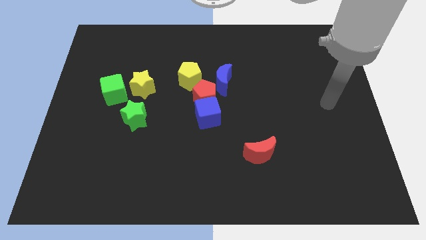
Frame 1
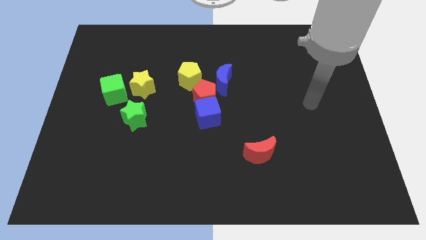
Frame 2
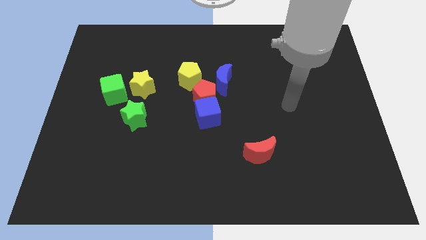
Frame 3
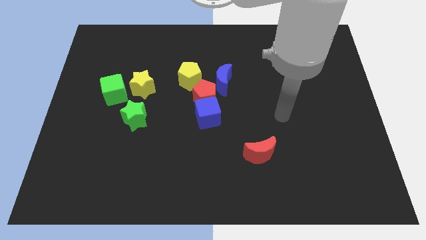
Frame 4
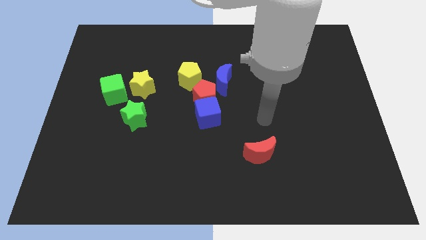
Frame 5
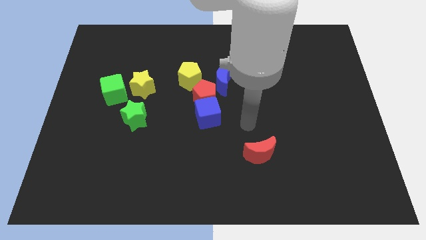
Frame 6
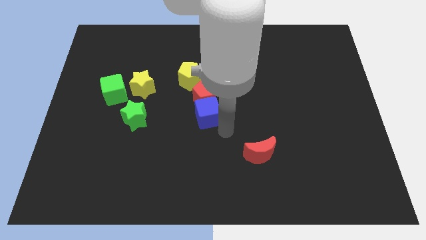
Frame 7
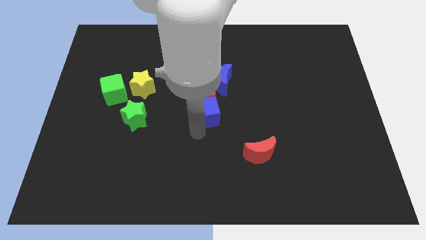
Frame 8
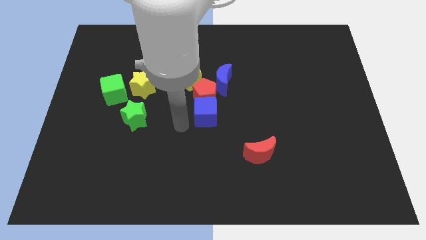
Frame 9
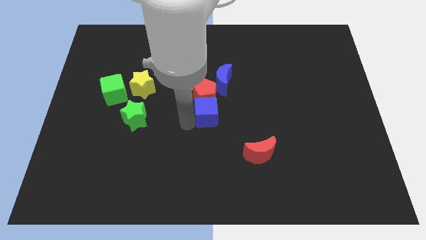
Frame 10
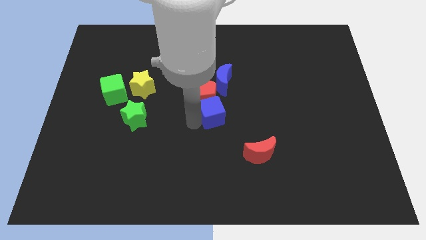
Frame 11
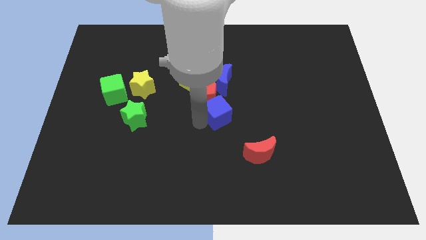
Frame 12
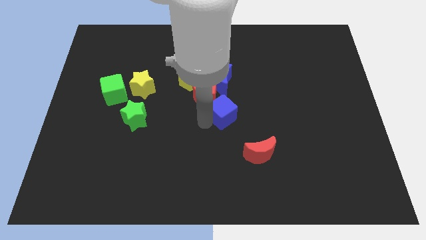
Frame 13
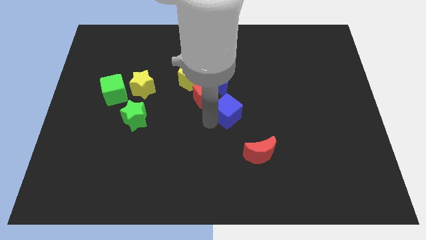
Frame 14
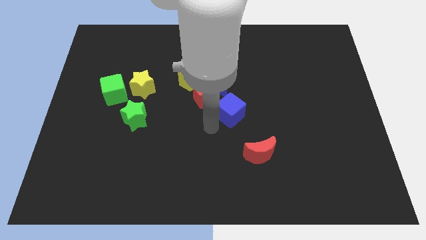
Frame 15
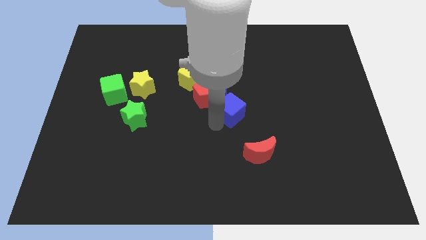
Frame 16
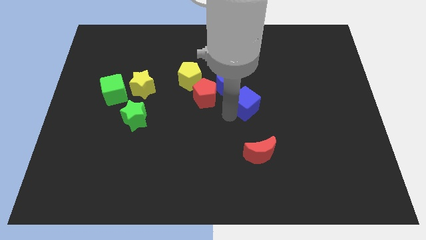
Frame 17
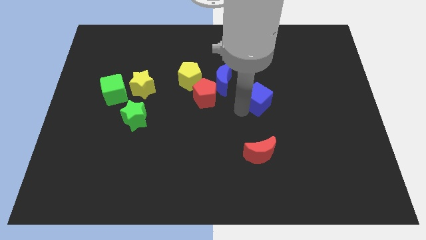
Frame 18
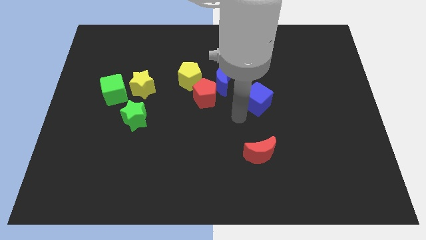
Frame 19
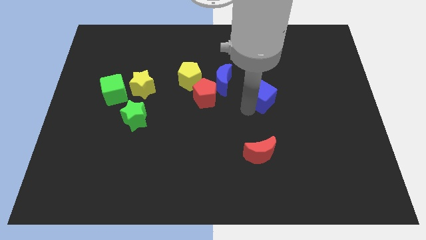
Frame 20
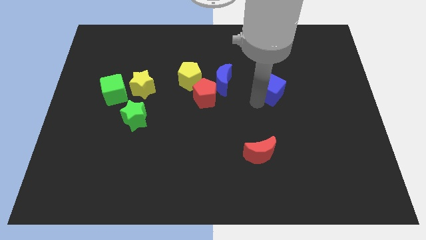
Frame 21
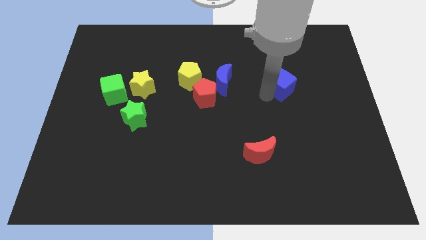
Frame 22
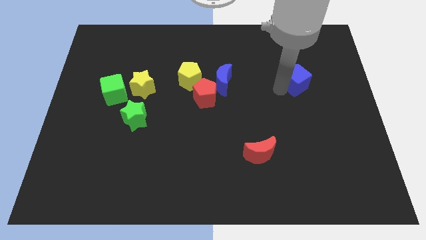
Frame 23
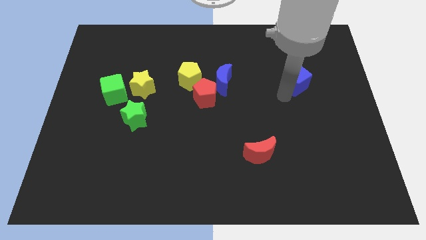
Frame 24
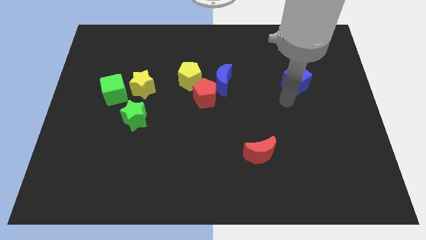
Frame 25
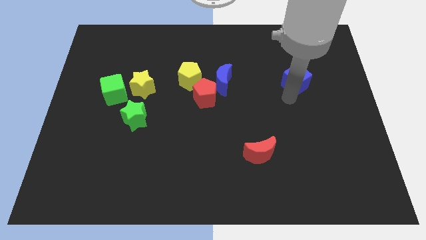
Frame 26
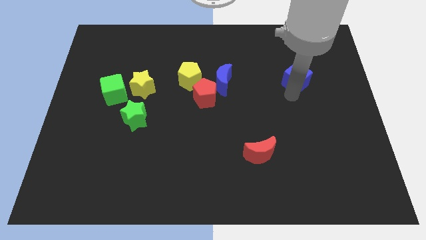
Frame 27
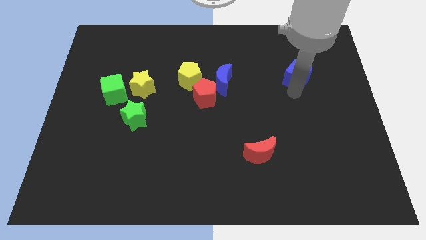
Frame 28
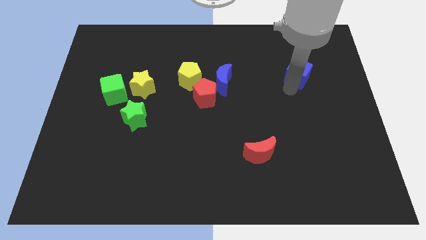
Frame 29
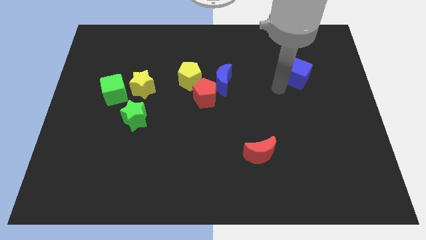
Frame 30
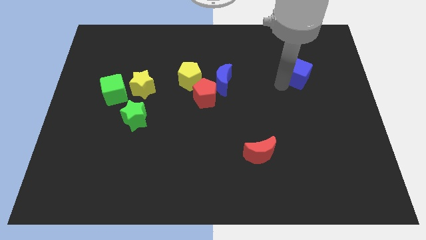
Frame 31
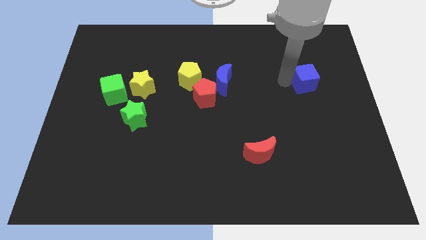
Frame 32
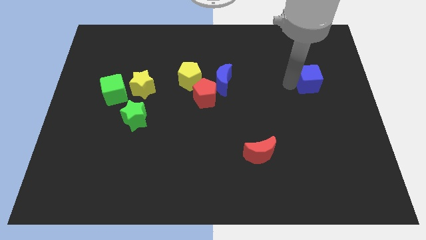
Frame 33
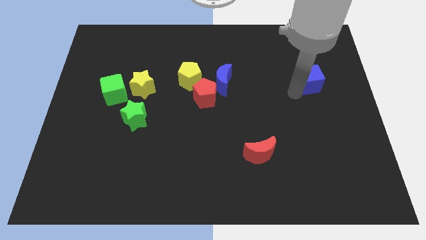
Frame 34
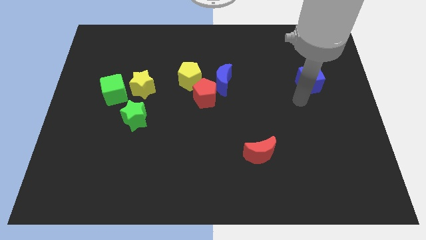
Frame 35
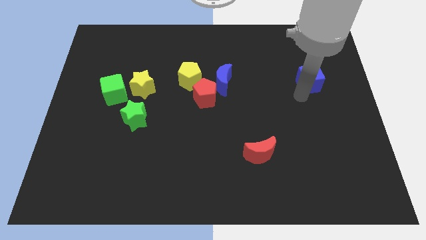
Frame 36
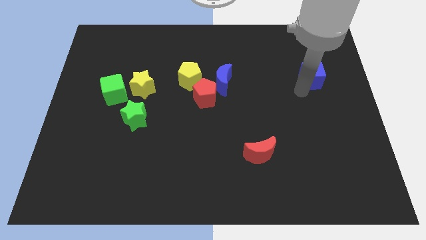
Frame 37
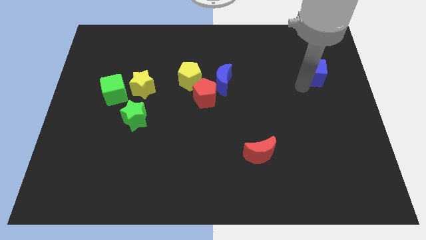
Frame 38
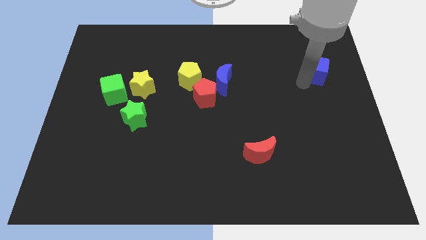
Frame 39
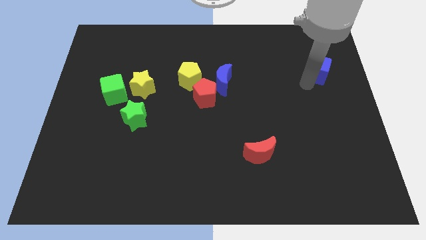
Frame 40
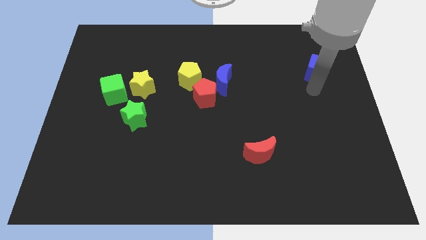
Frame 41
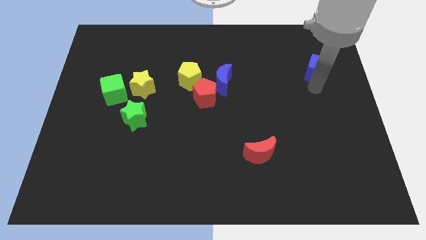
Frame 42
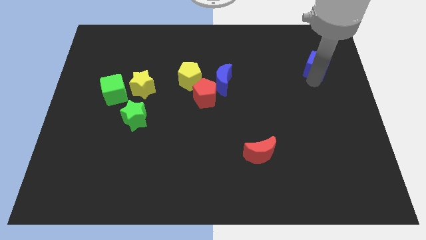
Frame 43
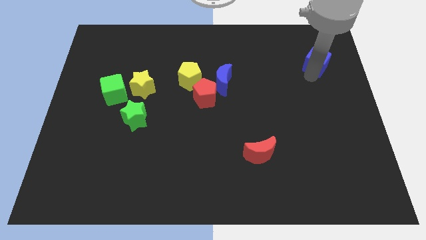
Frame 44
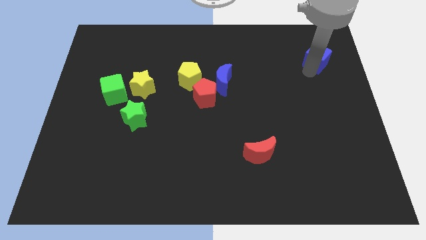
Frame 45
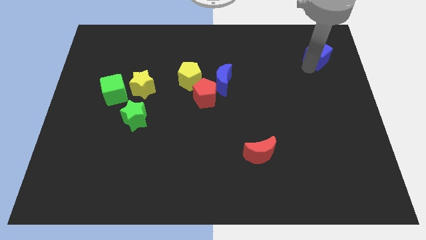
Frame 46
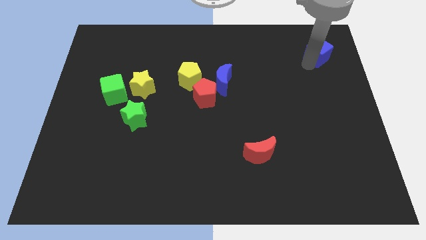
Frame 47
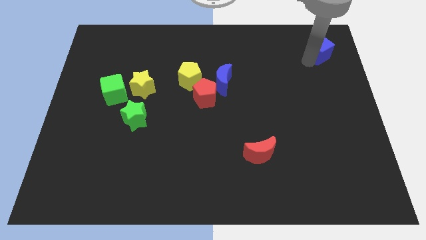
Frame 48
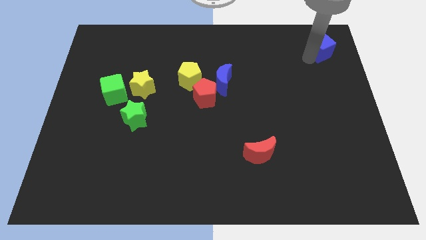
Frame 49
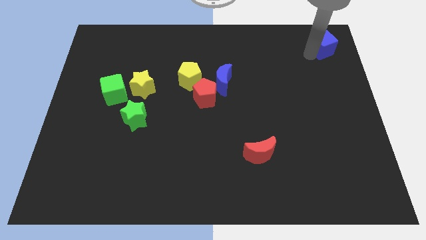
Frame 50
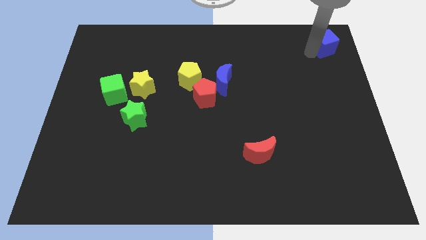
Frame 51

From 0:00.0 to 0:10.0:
move the blue cube to the upper right corner

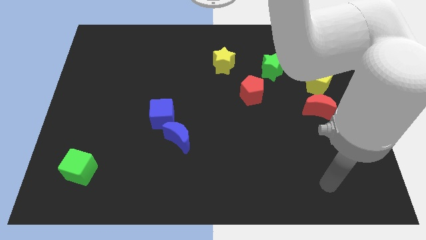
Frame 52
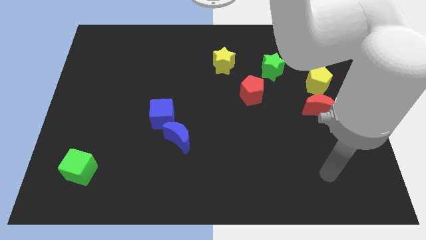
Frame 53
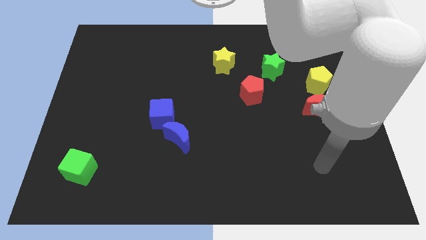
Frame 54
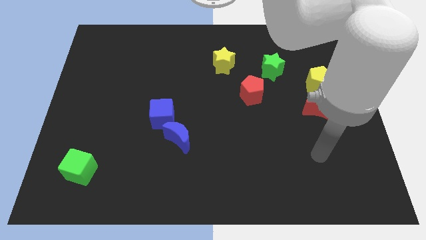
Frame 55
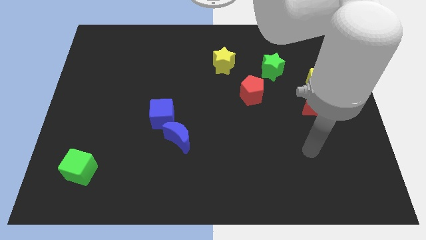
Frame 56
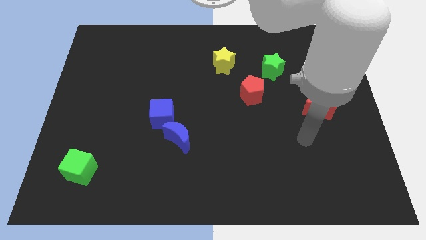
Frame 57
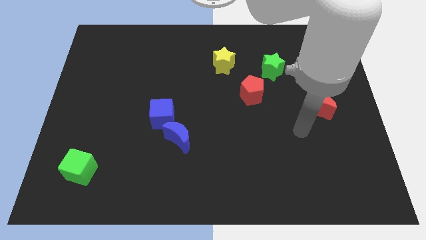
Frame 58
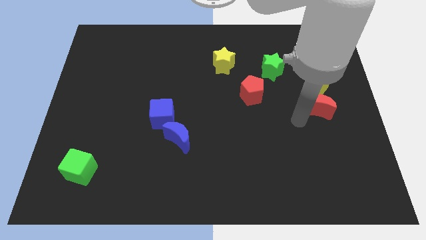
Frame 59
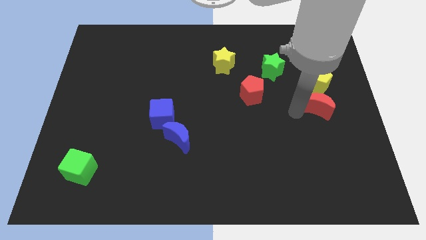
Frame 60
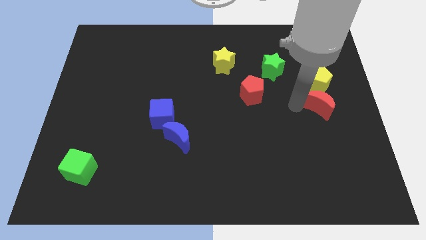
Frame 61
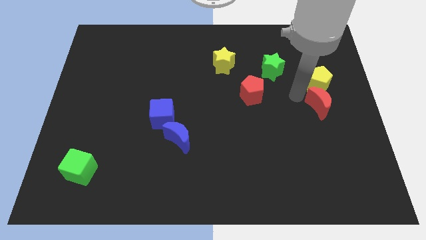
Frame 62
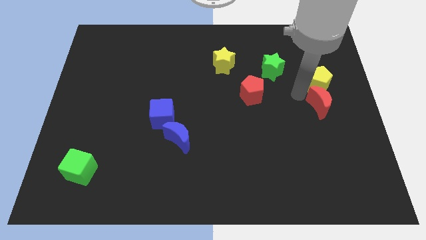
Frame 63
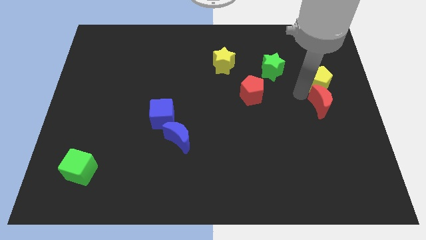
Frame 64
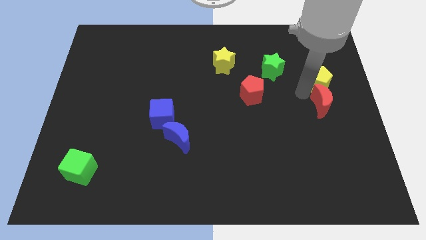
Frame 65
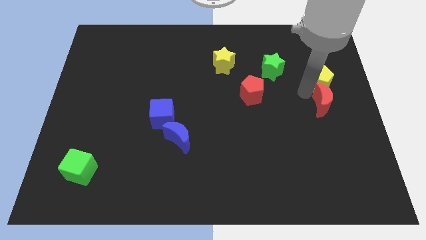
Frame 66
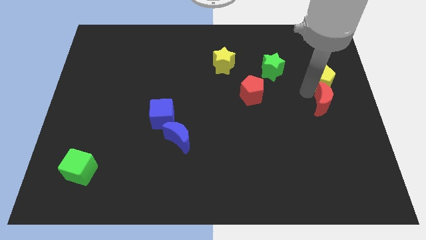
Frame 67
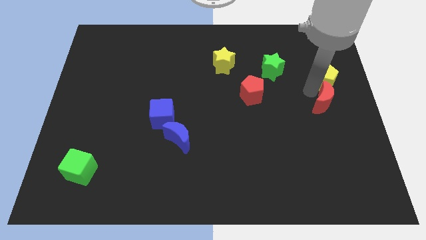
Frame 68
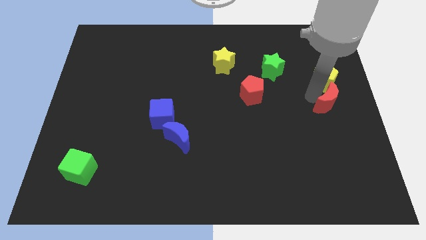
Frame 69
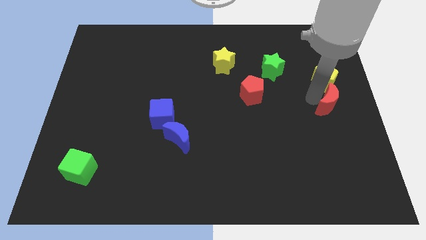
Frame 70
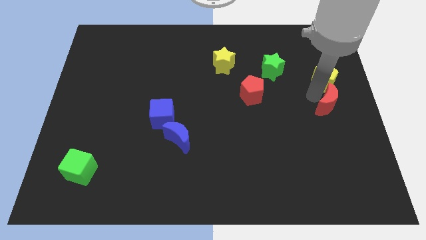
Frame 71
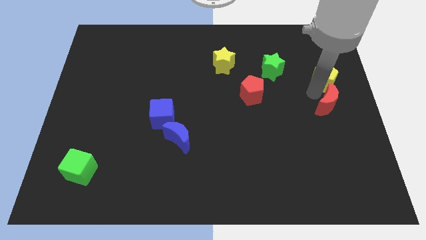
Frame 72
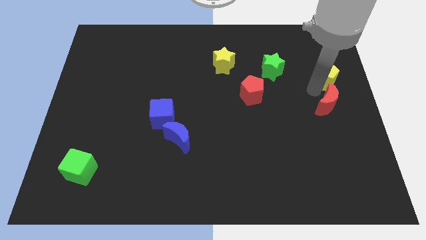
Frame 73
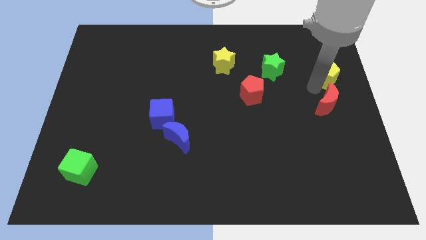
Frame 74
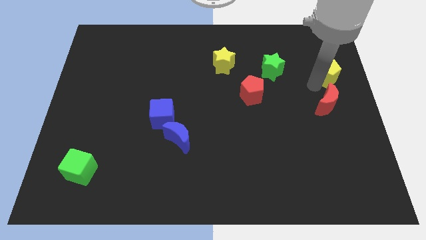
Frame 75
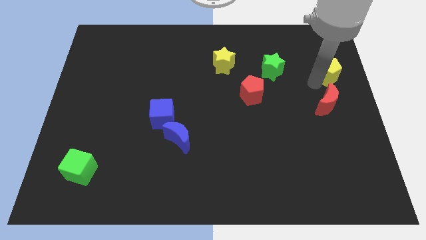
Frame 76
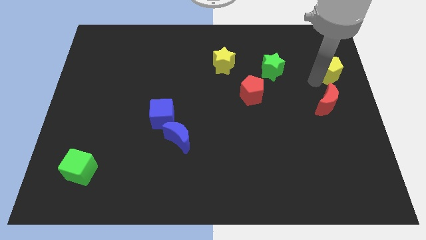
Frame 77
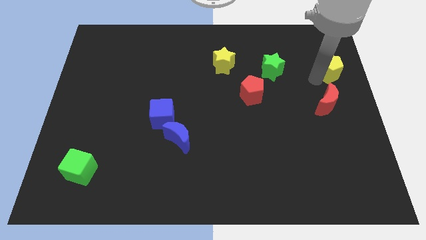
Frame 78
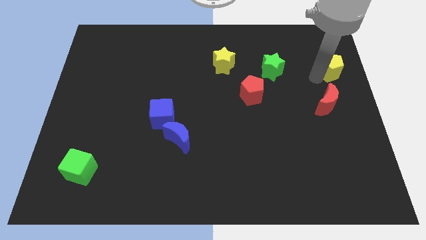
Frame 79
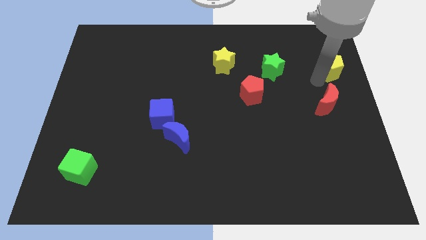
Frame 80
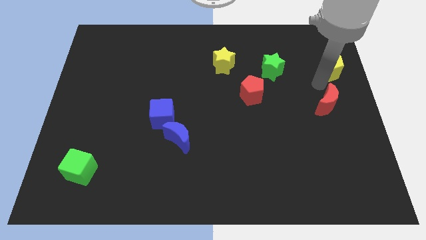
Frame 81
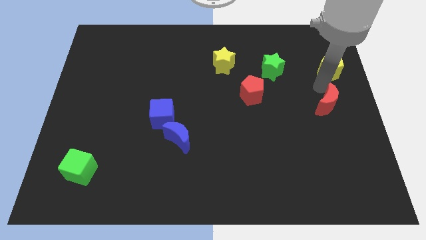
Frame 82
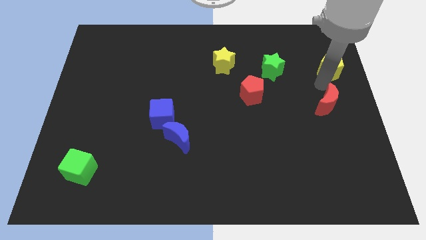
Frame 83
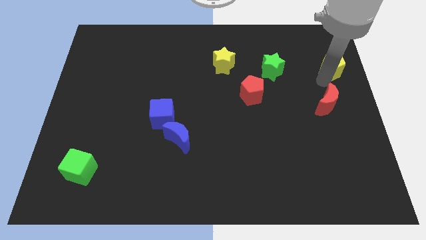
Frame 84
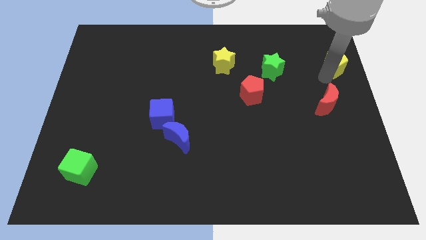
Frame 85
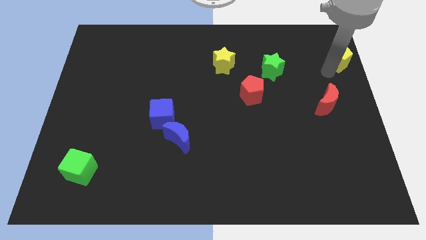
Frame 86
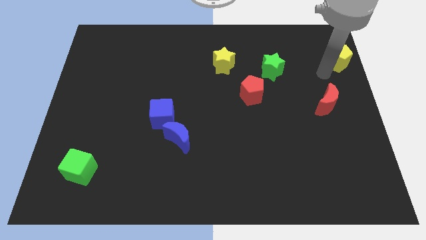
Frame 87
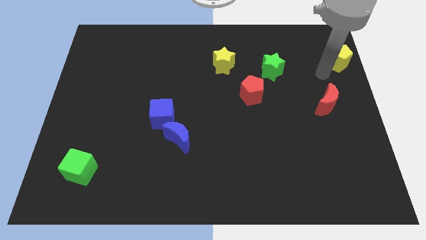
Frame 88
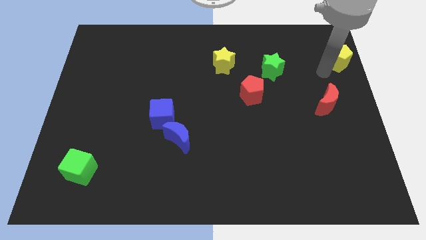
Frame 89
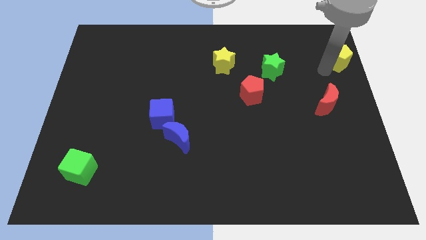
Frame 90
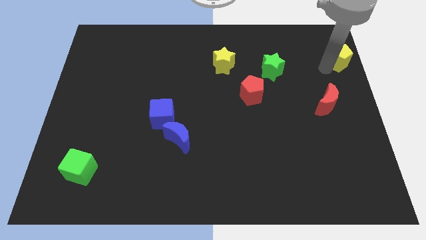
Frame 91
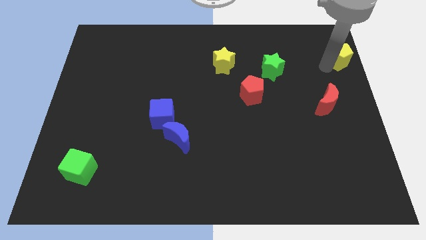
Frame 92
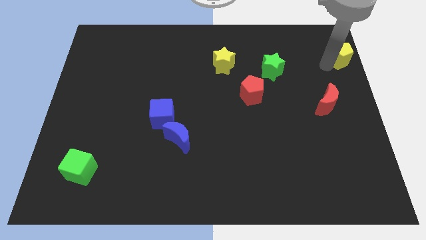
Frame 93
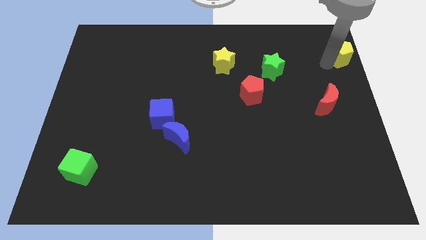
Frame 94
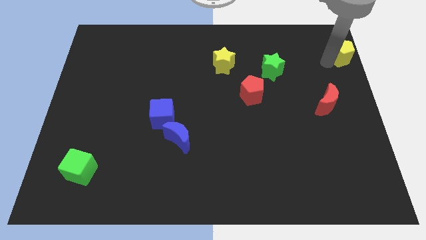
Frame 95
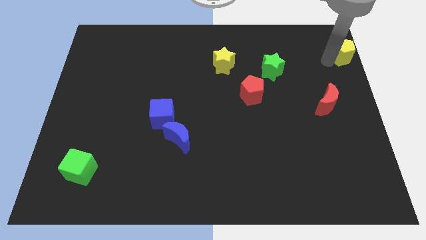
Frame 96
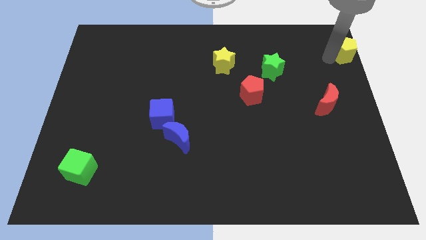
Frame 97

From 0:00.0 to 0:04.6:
put the yellow pentagon to the top right corner
